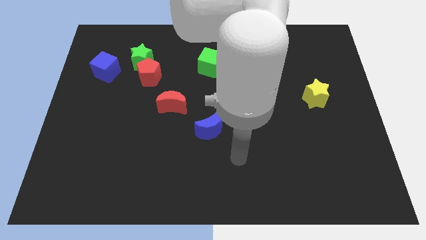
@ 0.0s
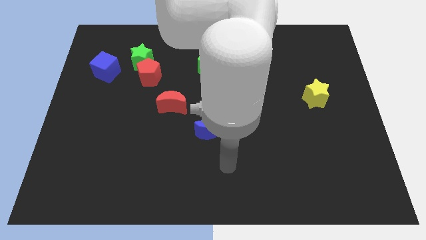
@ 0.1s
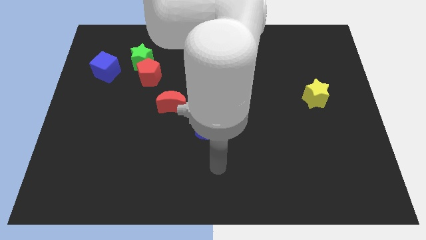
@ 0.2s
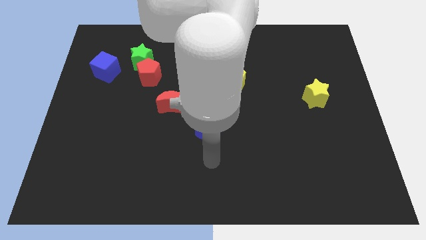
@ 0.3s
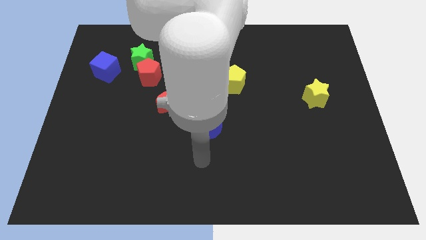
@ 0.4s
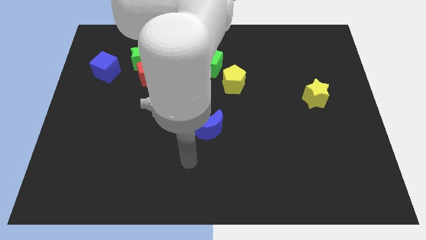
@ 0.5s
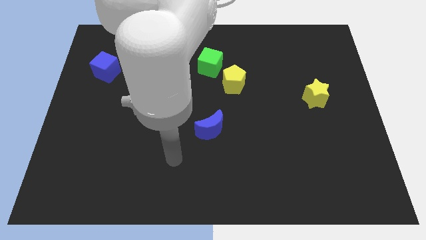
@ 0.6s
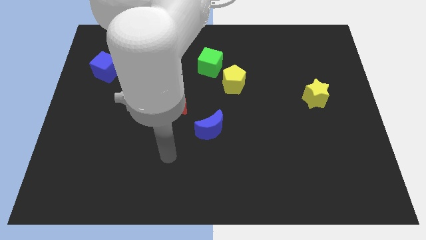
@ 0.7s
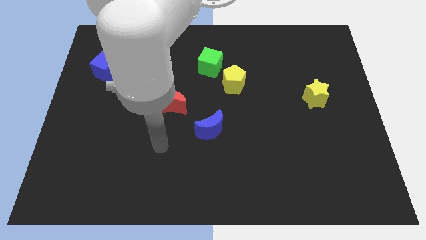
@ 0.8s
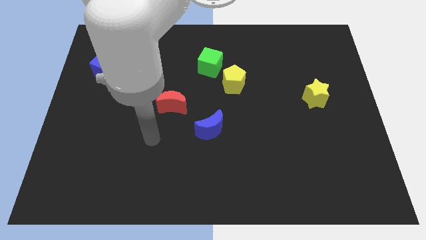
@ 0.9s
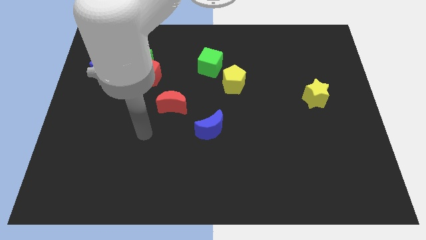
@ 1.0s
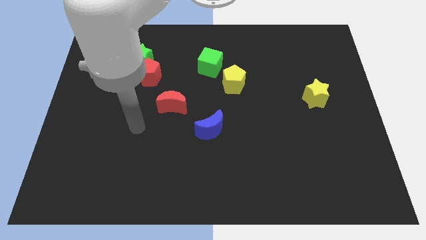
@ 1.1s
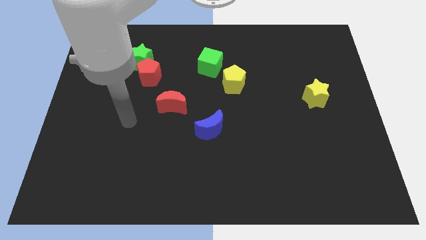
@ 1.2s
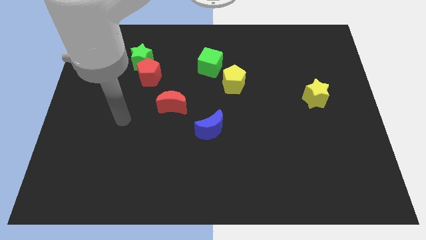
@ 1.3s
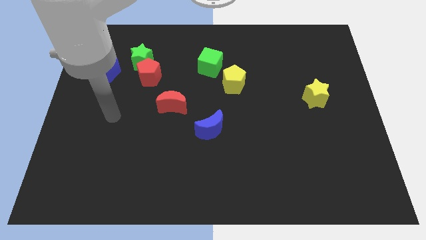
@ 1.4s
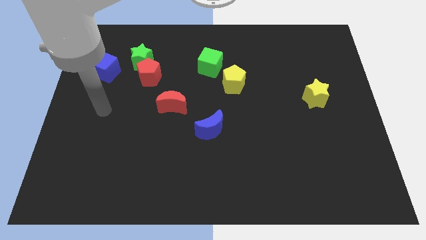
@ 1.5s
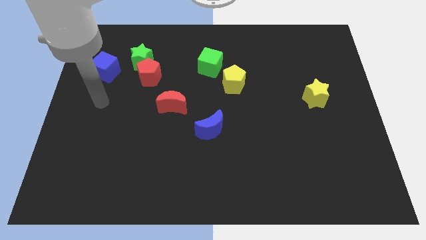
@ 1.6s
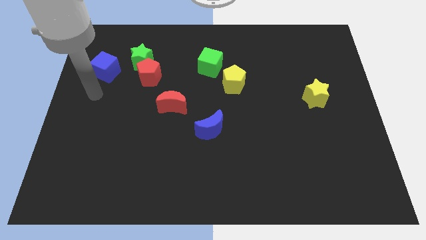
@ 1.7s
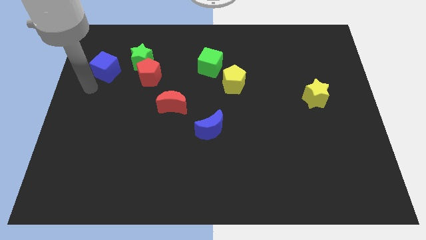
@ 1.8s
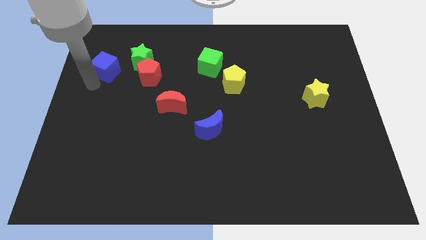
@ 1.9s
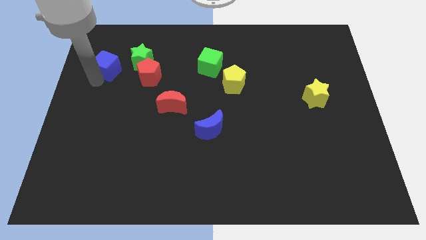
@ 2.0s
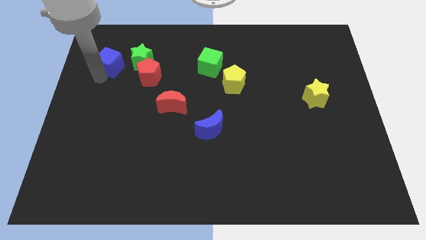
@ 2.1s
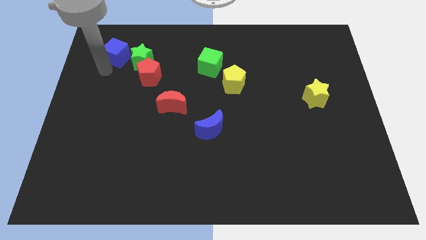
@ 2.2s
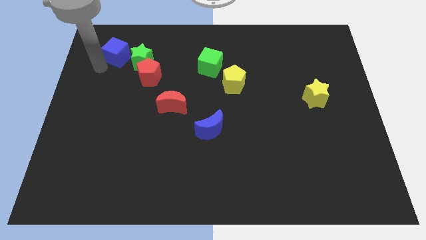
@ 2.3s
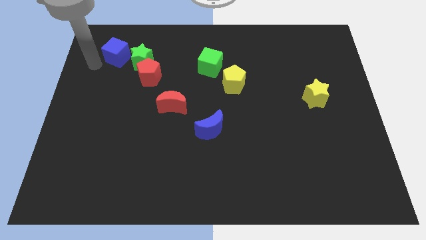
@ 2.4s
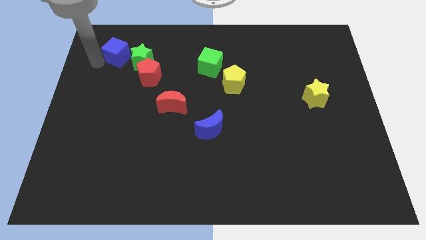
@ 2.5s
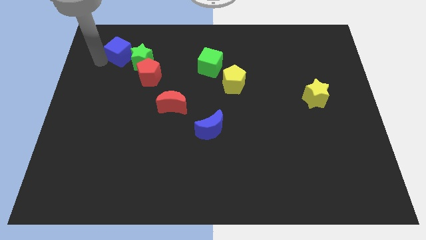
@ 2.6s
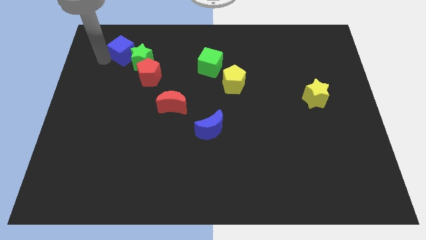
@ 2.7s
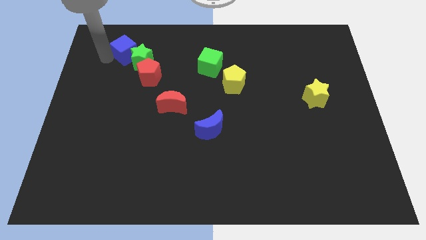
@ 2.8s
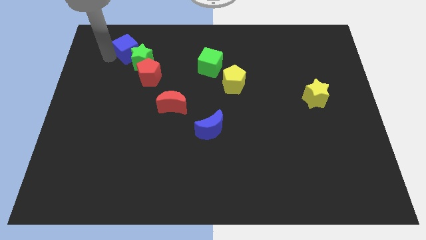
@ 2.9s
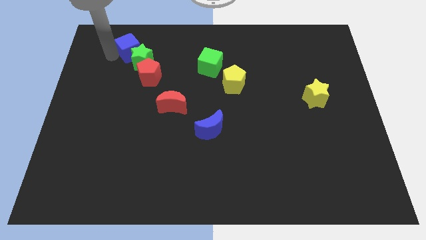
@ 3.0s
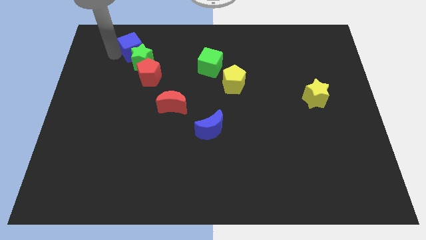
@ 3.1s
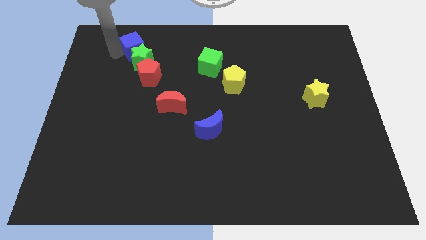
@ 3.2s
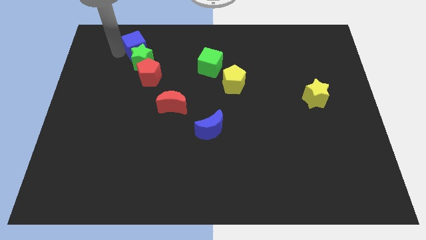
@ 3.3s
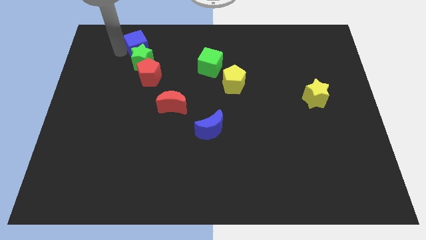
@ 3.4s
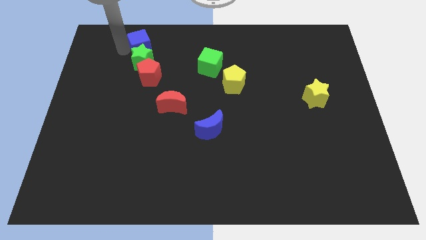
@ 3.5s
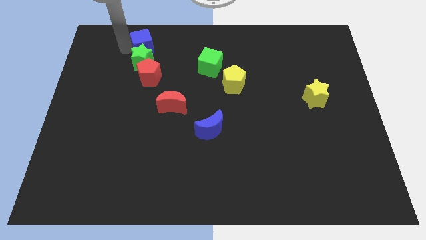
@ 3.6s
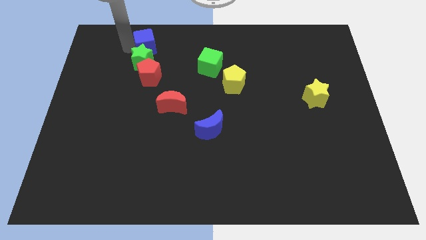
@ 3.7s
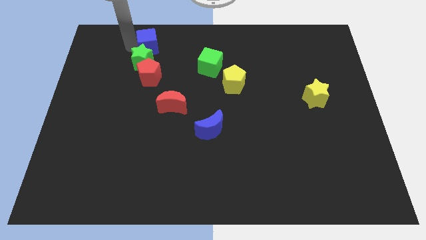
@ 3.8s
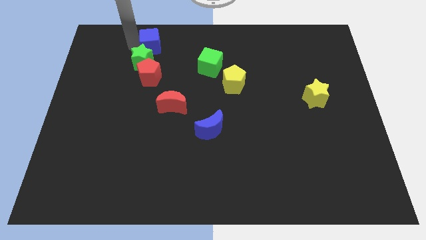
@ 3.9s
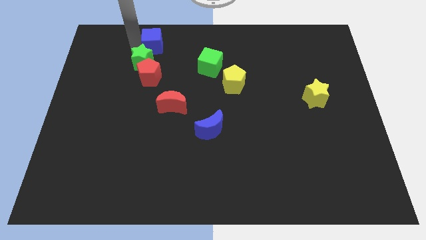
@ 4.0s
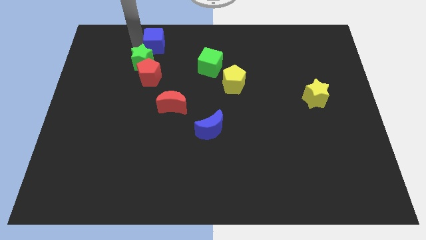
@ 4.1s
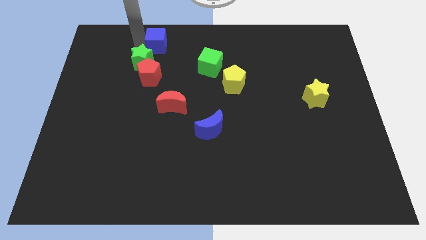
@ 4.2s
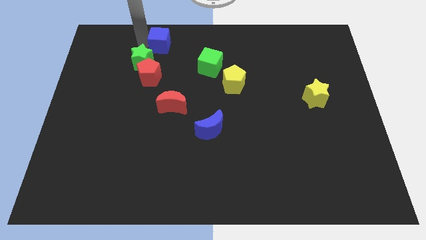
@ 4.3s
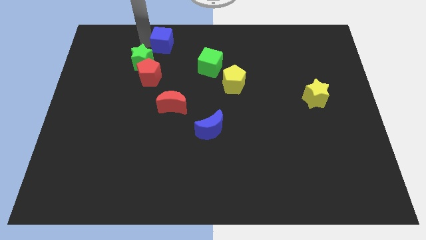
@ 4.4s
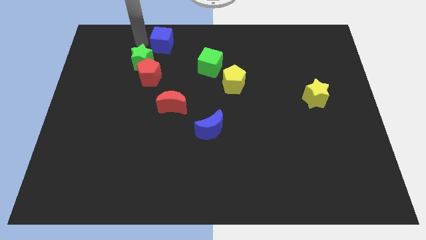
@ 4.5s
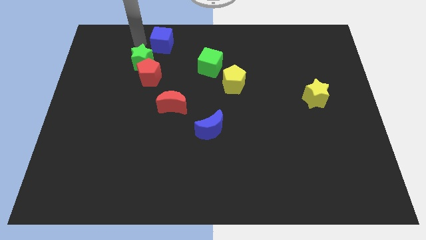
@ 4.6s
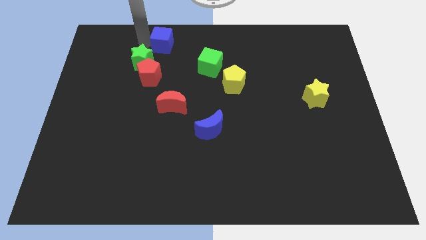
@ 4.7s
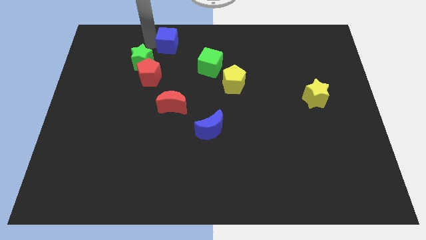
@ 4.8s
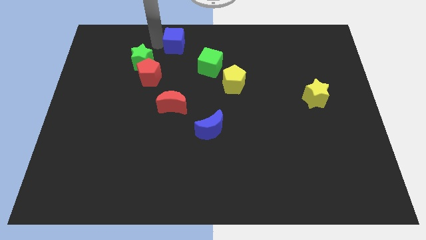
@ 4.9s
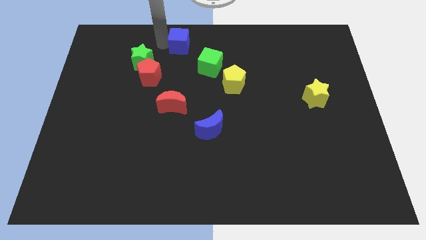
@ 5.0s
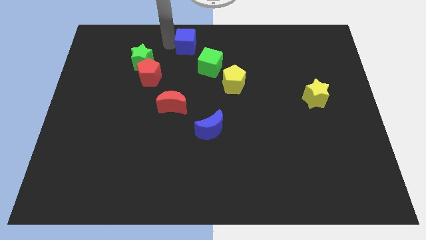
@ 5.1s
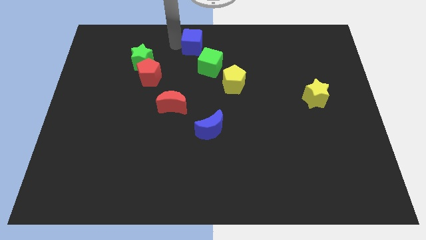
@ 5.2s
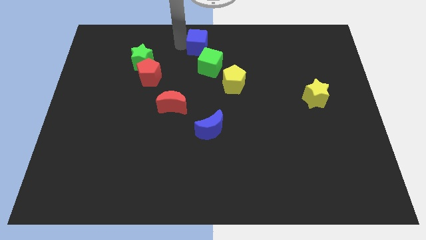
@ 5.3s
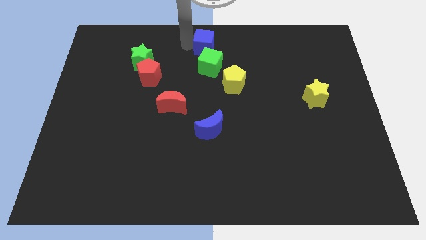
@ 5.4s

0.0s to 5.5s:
move the blue cube to the right

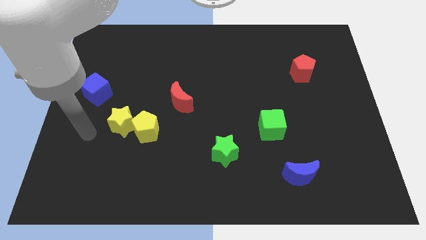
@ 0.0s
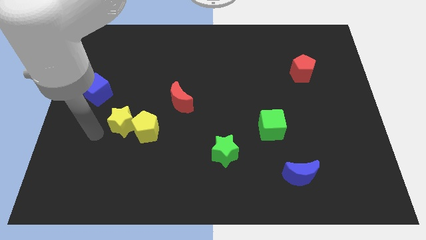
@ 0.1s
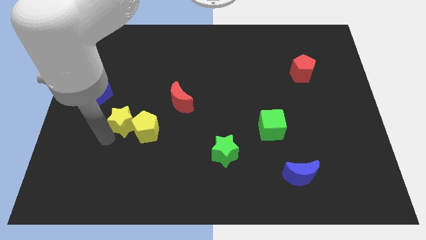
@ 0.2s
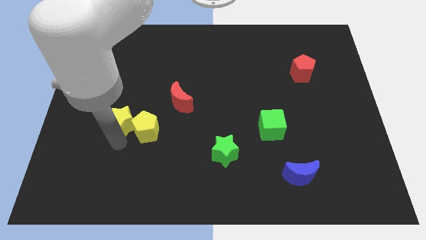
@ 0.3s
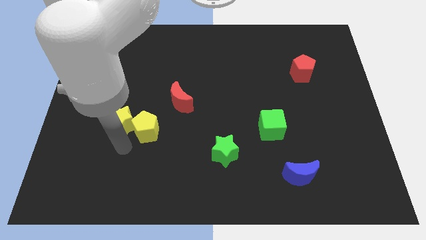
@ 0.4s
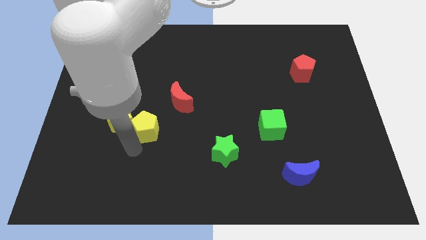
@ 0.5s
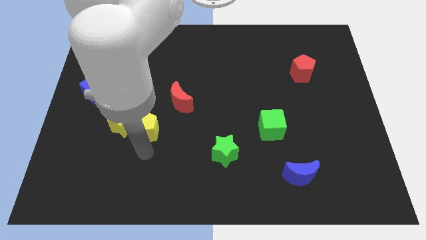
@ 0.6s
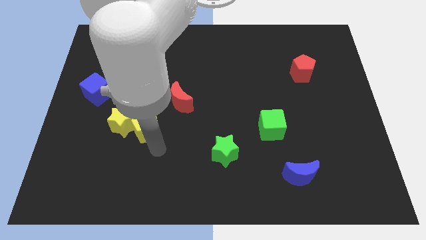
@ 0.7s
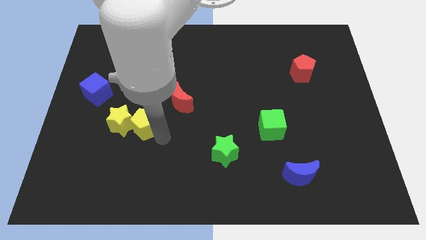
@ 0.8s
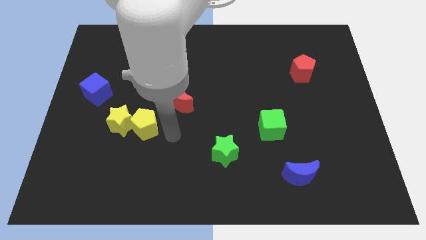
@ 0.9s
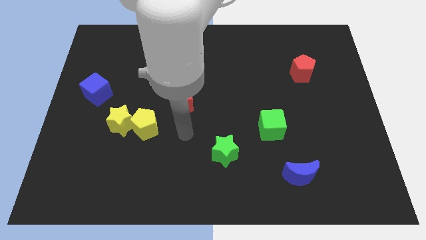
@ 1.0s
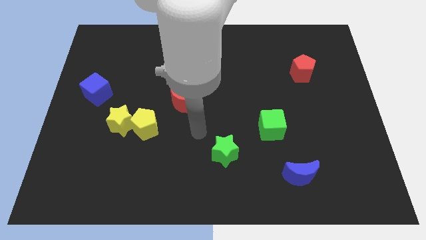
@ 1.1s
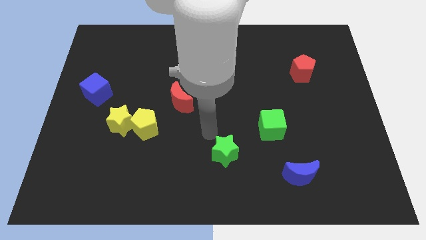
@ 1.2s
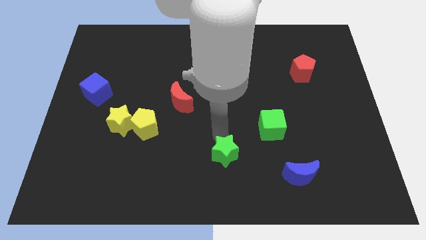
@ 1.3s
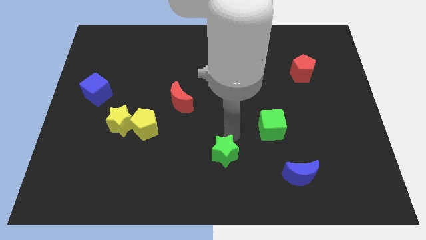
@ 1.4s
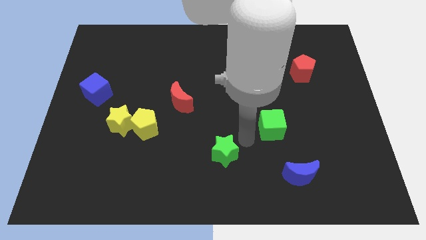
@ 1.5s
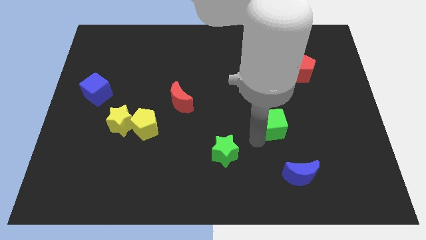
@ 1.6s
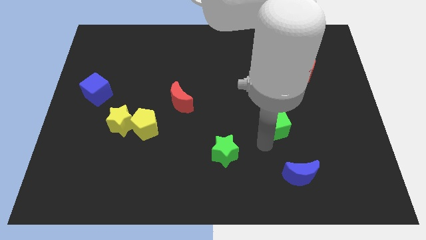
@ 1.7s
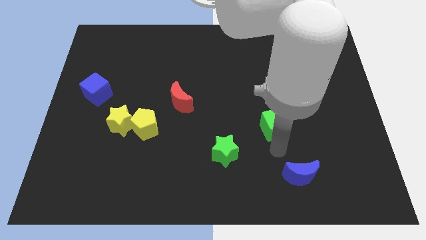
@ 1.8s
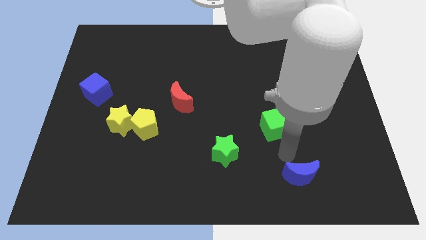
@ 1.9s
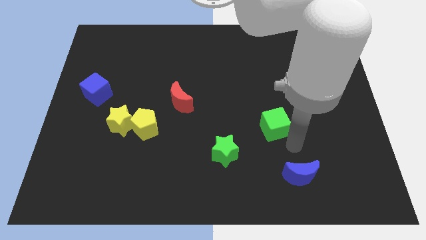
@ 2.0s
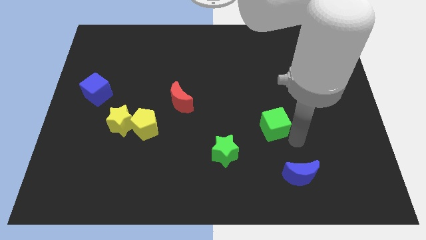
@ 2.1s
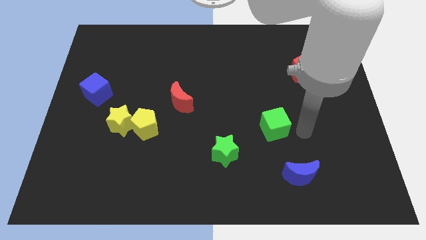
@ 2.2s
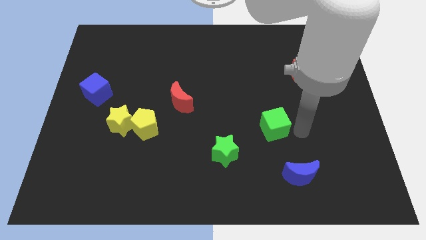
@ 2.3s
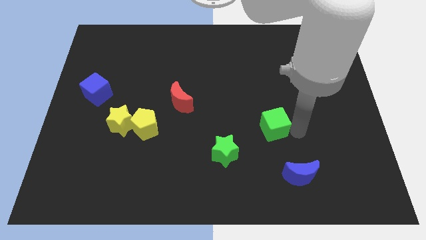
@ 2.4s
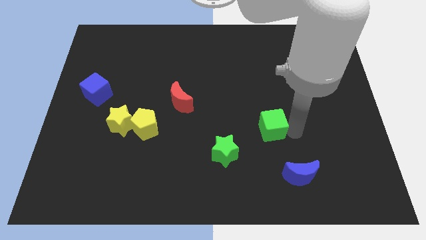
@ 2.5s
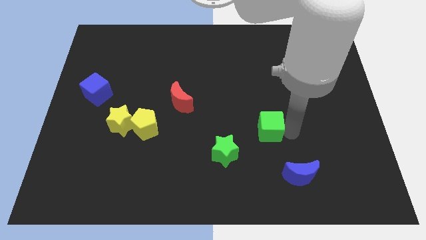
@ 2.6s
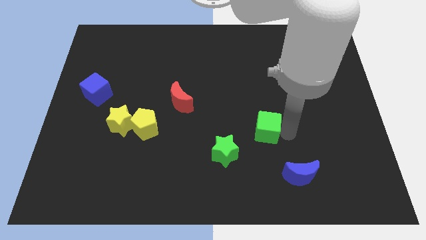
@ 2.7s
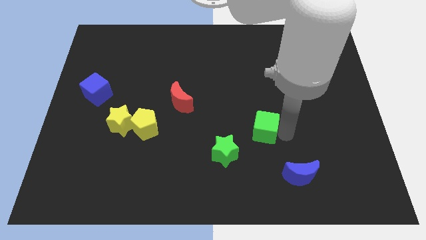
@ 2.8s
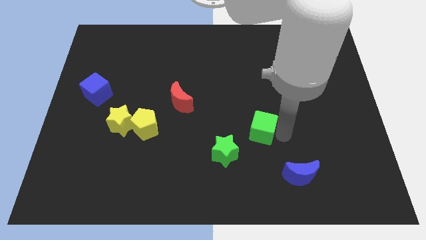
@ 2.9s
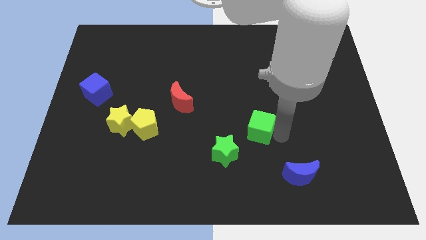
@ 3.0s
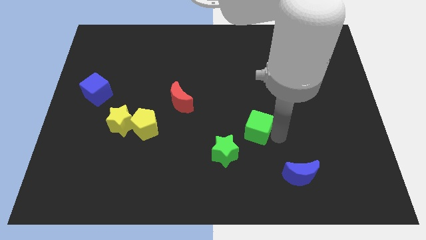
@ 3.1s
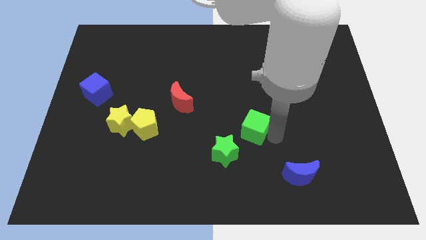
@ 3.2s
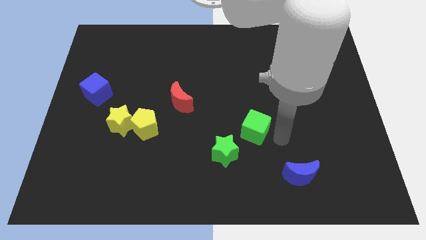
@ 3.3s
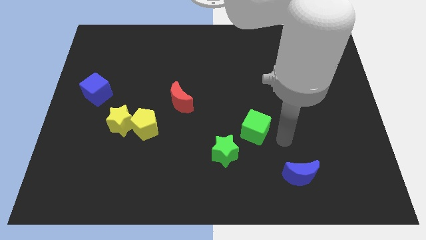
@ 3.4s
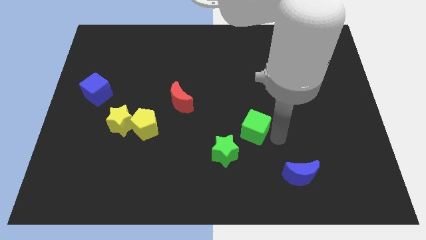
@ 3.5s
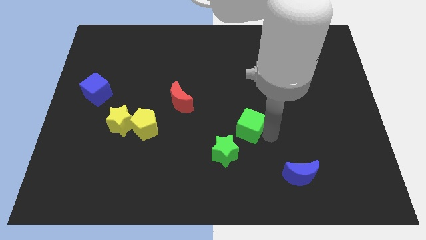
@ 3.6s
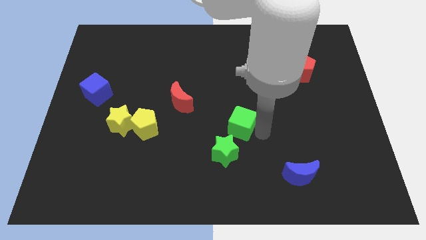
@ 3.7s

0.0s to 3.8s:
slide the green cube somewhat to the left
